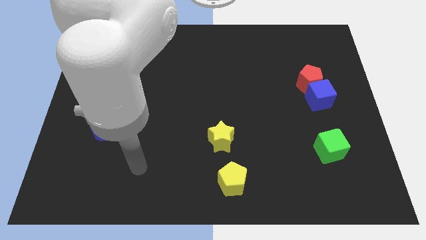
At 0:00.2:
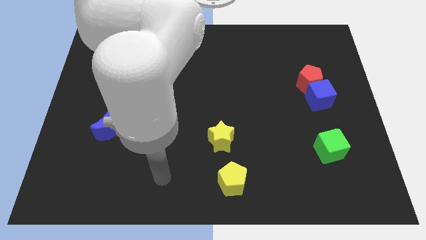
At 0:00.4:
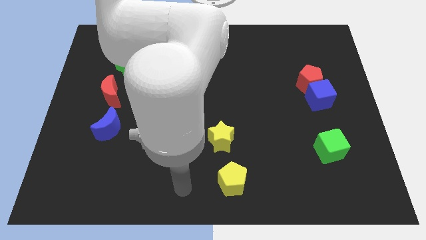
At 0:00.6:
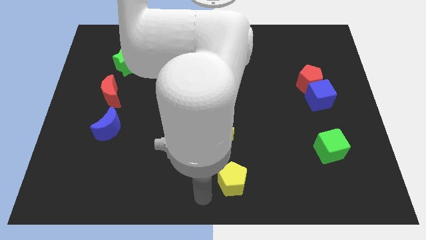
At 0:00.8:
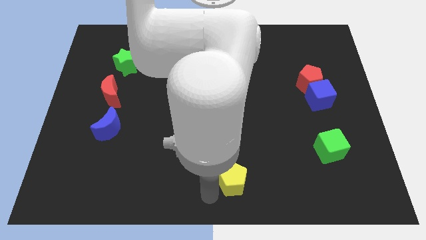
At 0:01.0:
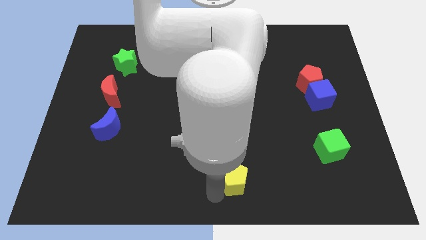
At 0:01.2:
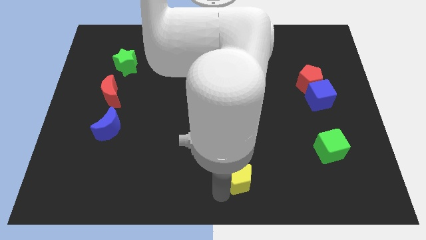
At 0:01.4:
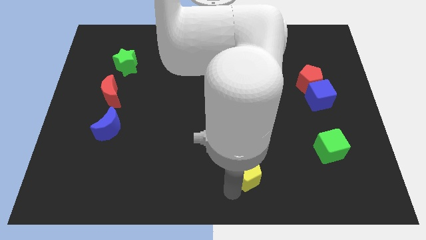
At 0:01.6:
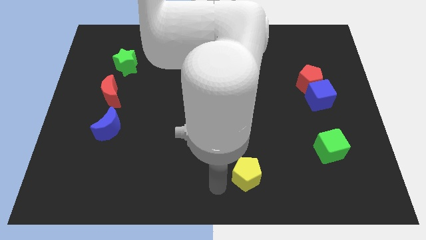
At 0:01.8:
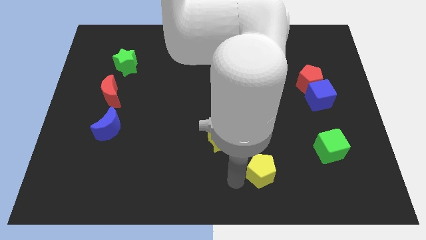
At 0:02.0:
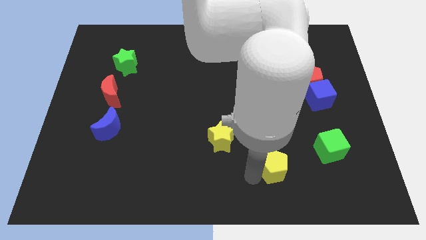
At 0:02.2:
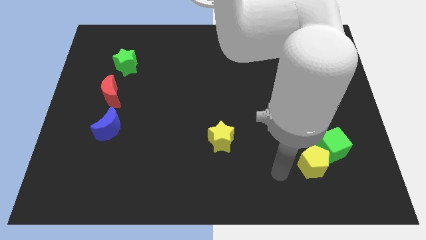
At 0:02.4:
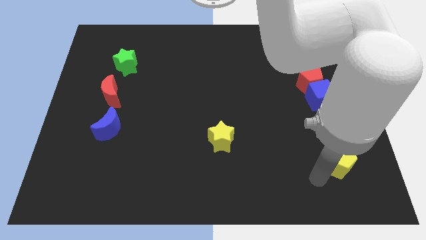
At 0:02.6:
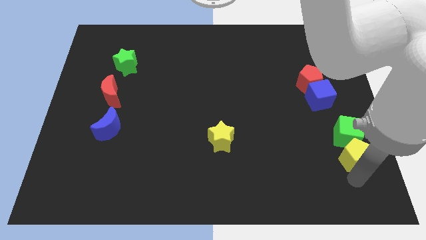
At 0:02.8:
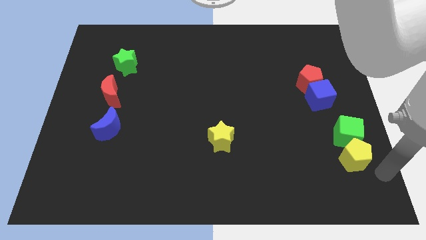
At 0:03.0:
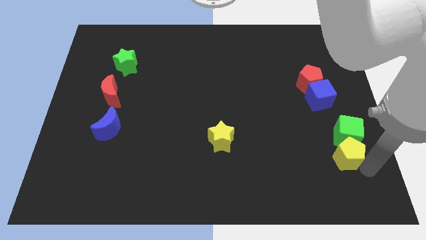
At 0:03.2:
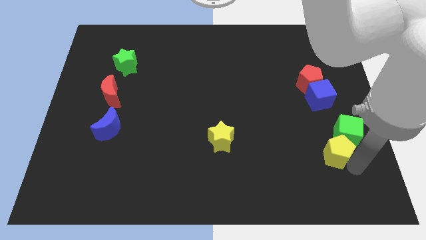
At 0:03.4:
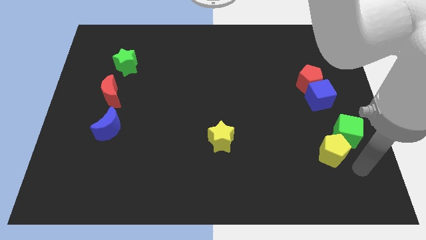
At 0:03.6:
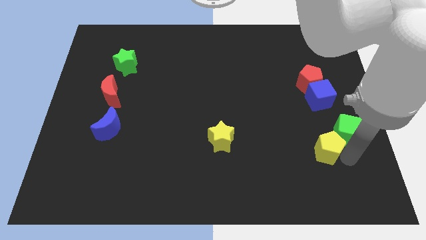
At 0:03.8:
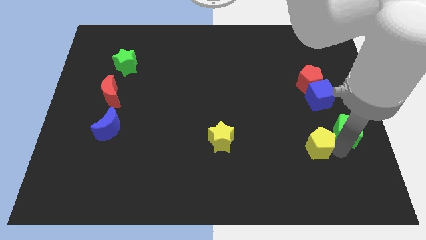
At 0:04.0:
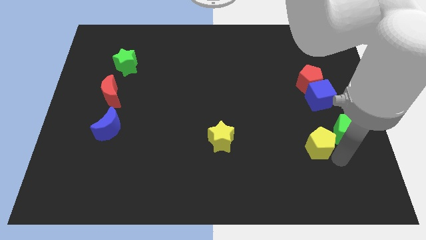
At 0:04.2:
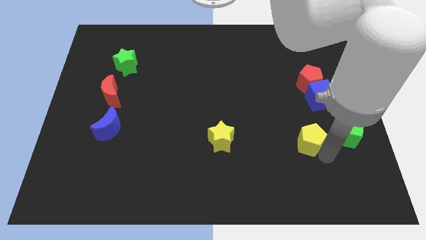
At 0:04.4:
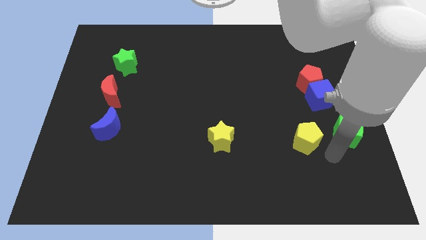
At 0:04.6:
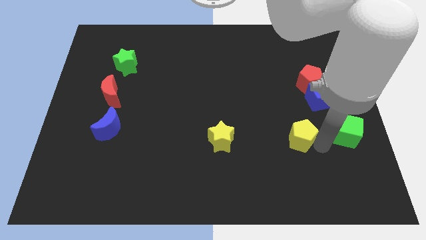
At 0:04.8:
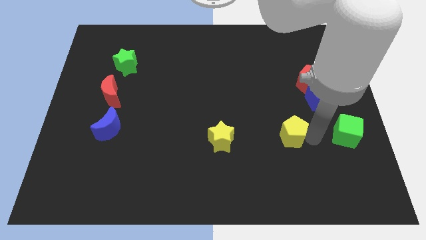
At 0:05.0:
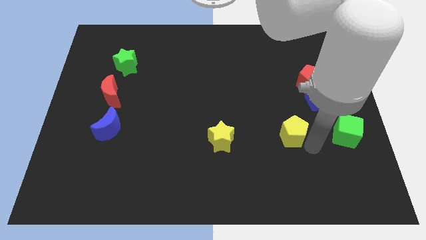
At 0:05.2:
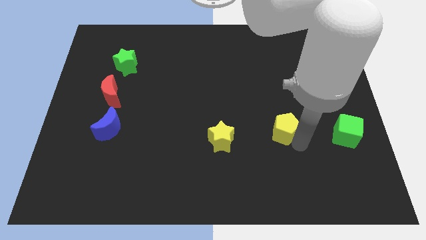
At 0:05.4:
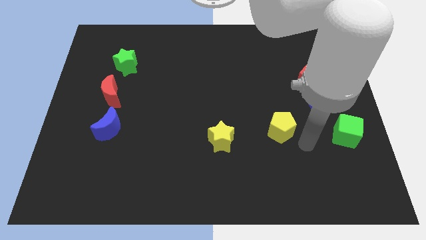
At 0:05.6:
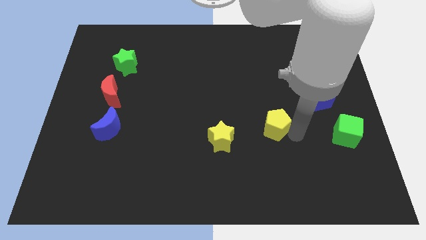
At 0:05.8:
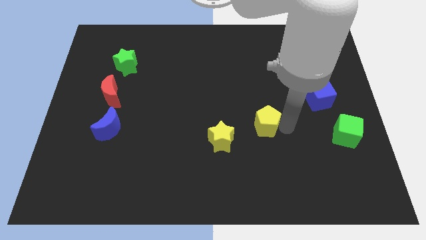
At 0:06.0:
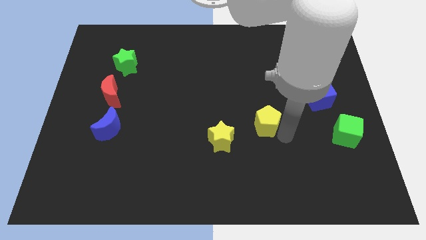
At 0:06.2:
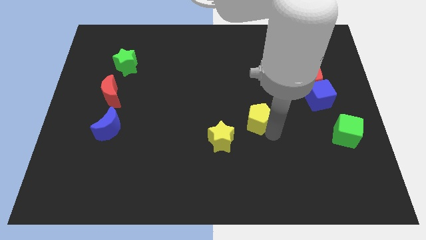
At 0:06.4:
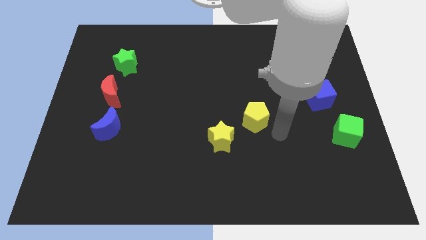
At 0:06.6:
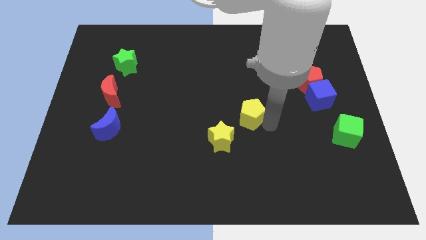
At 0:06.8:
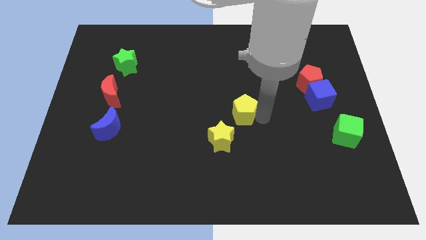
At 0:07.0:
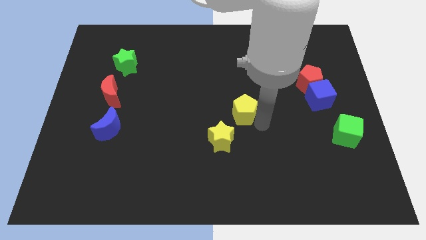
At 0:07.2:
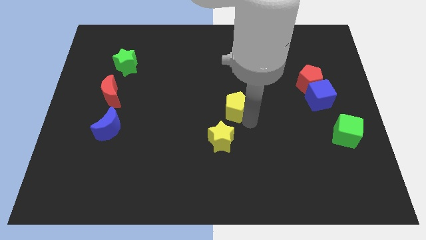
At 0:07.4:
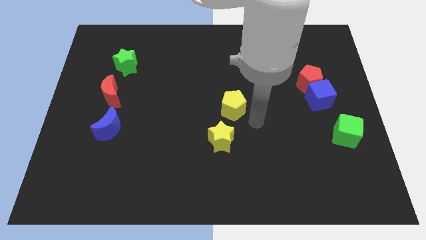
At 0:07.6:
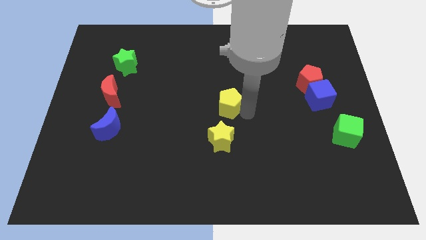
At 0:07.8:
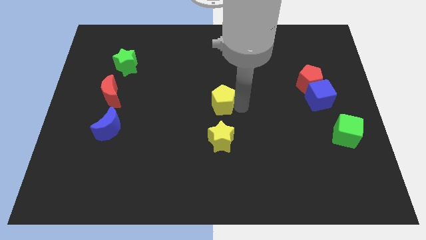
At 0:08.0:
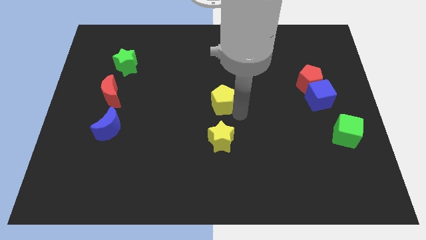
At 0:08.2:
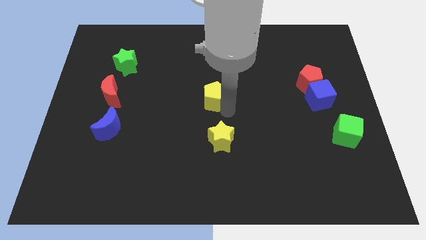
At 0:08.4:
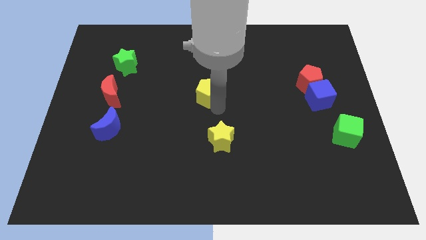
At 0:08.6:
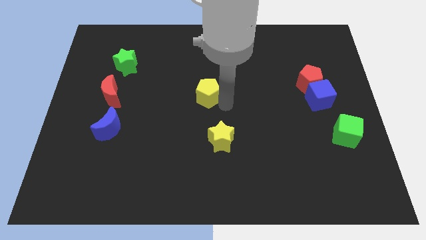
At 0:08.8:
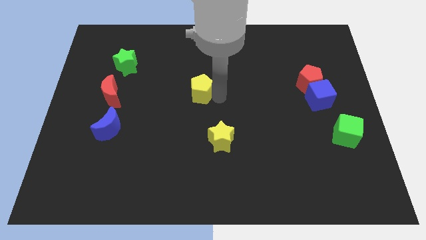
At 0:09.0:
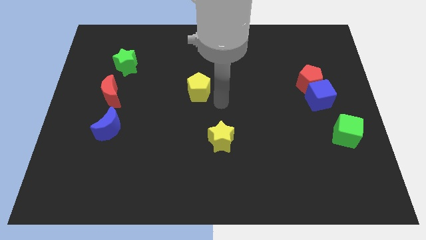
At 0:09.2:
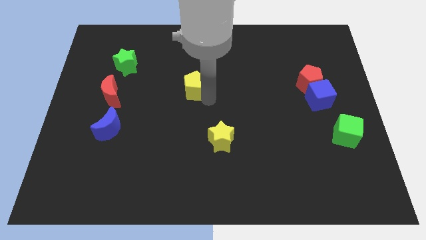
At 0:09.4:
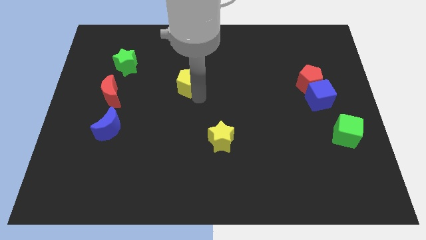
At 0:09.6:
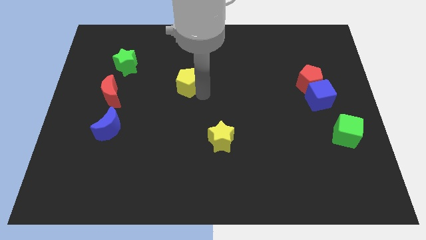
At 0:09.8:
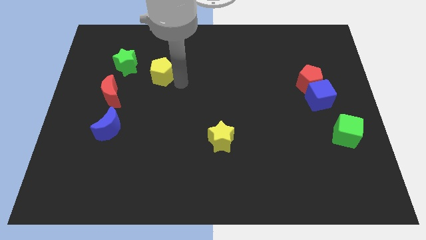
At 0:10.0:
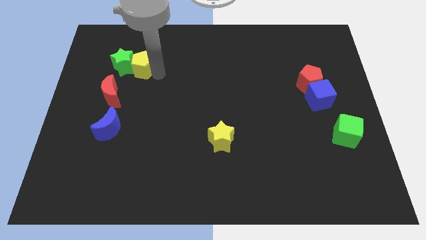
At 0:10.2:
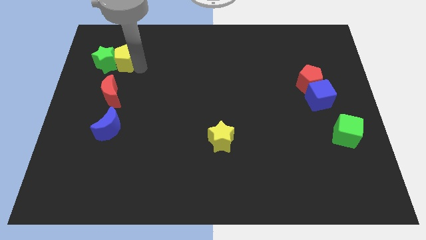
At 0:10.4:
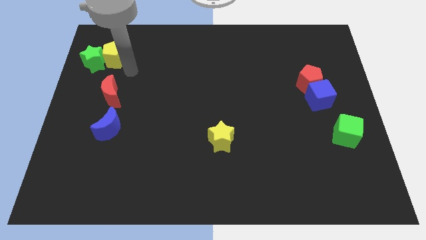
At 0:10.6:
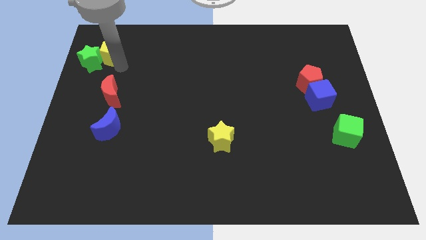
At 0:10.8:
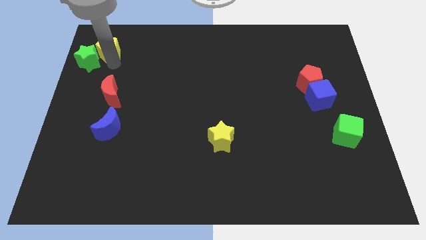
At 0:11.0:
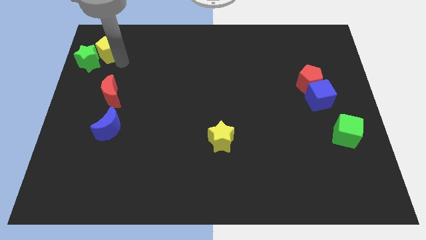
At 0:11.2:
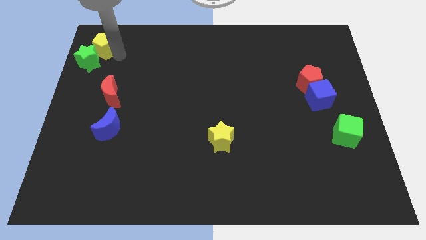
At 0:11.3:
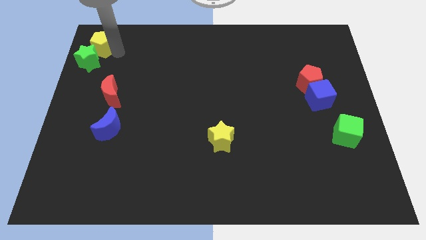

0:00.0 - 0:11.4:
put the yellow pentagon to the upper left corner
